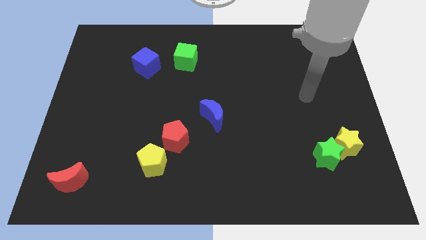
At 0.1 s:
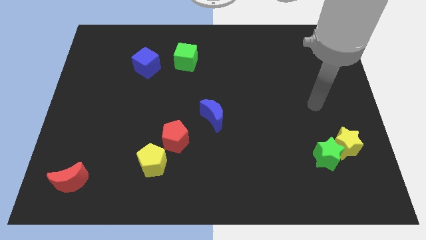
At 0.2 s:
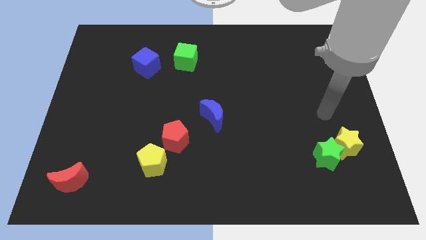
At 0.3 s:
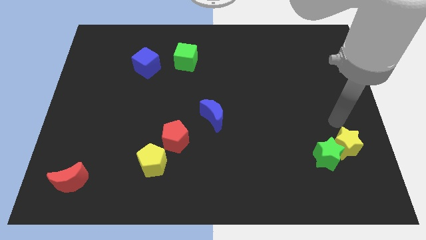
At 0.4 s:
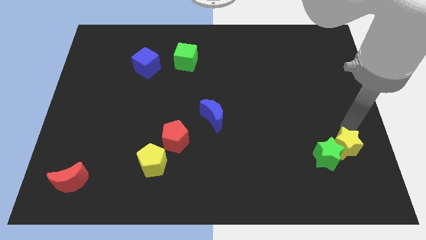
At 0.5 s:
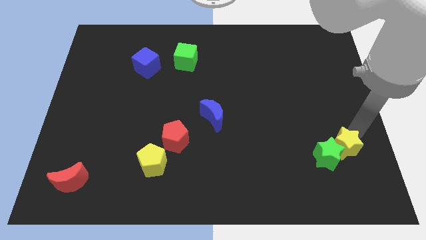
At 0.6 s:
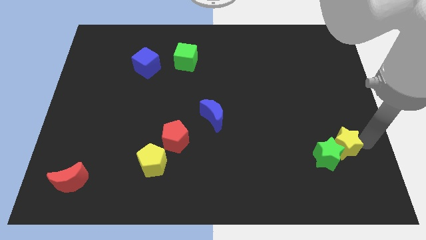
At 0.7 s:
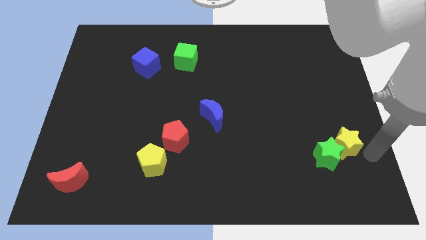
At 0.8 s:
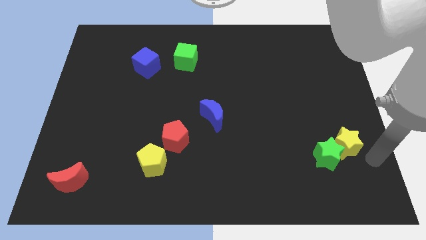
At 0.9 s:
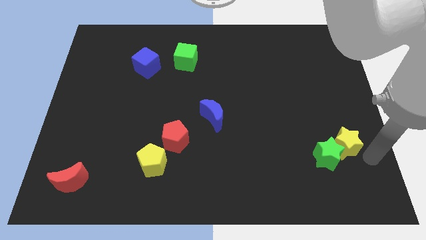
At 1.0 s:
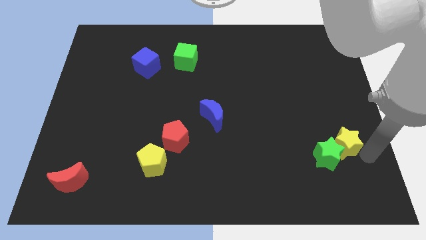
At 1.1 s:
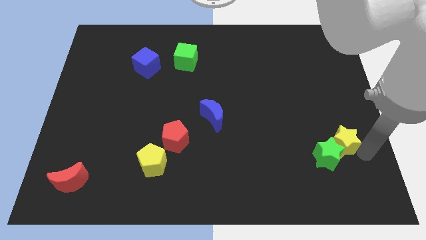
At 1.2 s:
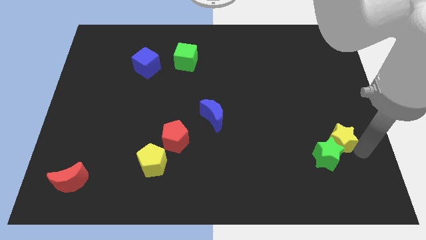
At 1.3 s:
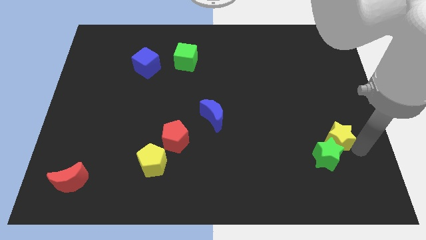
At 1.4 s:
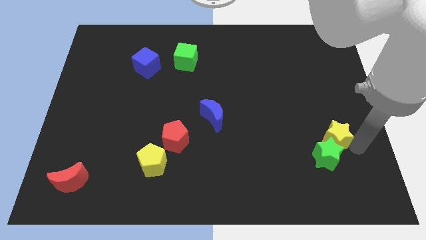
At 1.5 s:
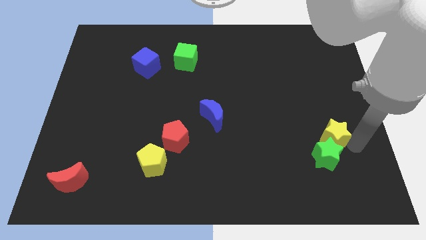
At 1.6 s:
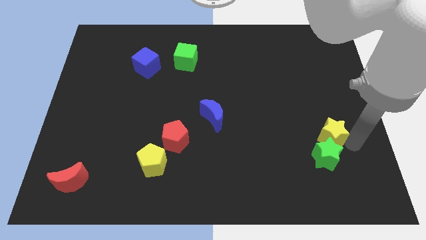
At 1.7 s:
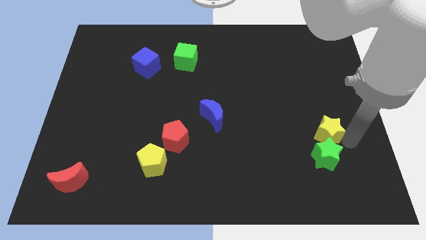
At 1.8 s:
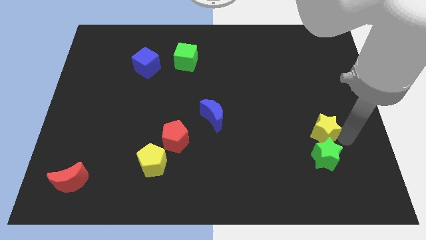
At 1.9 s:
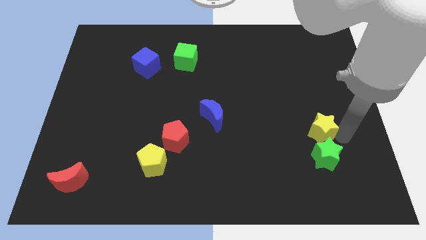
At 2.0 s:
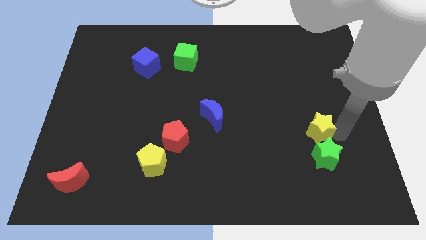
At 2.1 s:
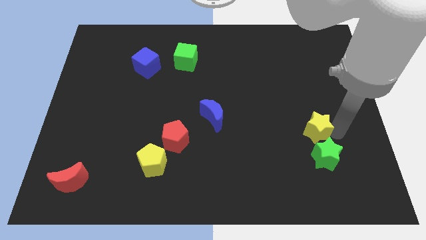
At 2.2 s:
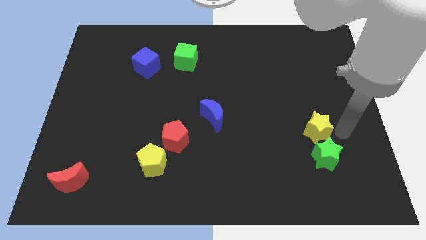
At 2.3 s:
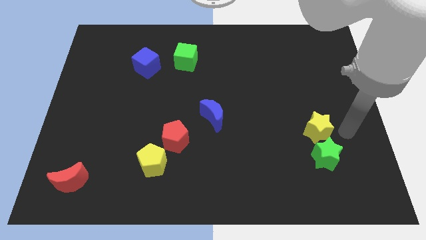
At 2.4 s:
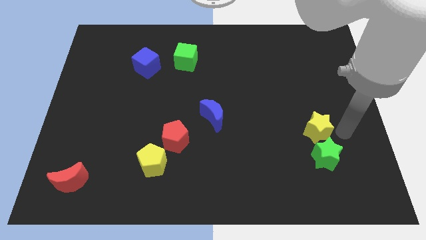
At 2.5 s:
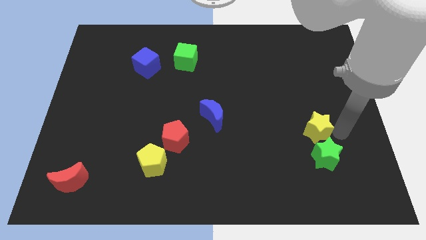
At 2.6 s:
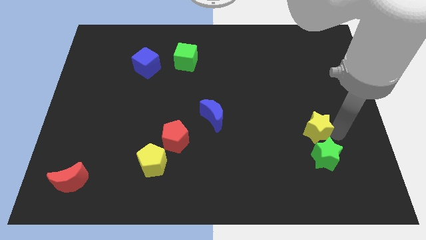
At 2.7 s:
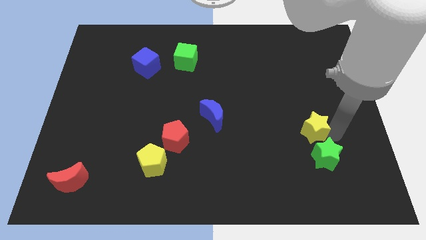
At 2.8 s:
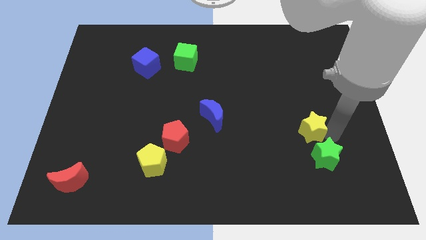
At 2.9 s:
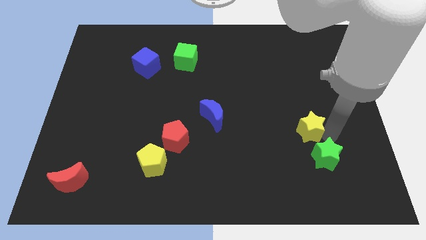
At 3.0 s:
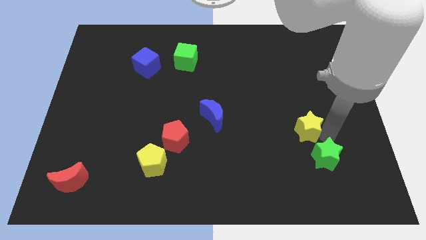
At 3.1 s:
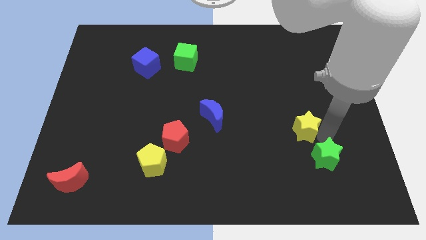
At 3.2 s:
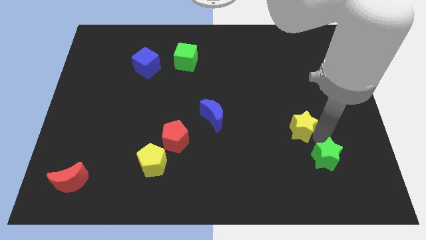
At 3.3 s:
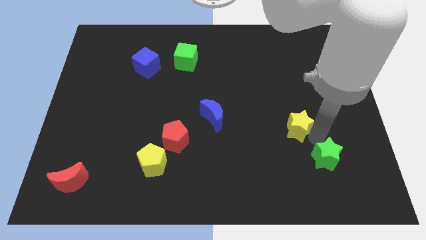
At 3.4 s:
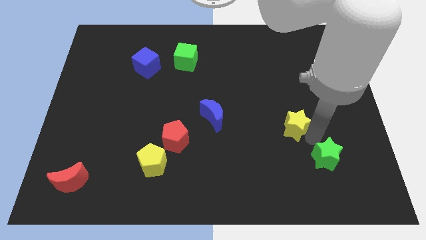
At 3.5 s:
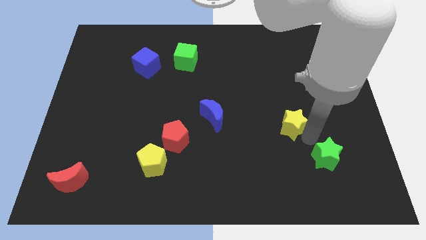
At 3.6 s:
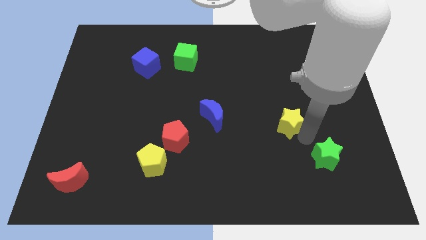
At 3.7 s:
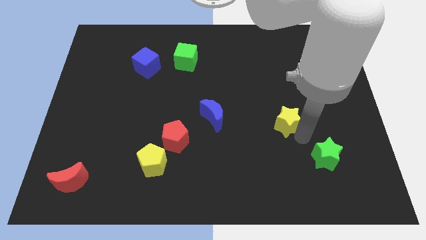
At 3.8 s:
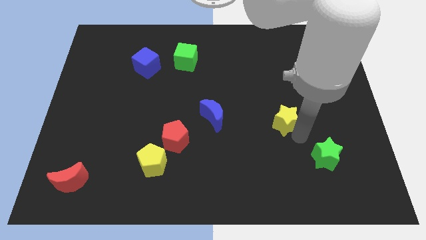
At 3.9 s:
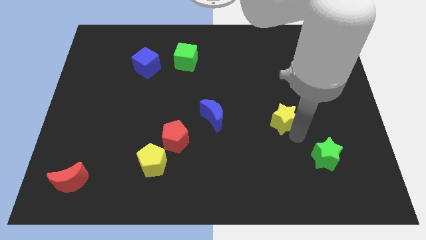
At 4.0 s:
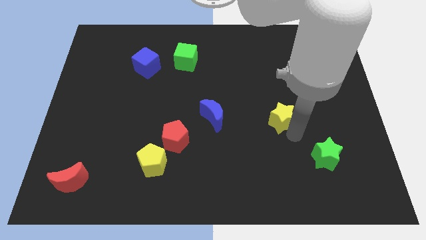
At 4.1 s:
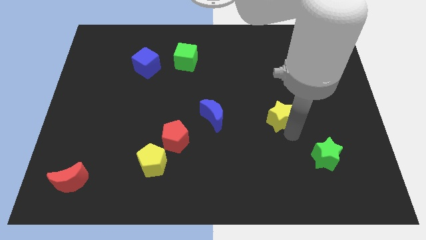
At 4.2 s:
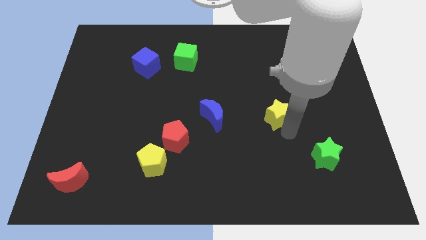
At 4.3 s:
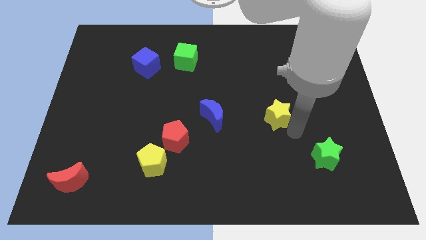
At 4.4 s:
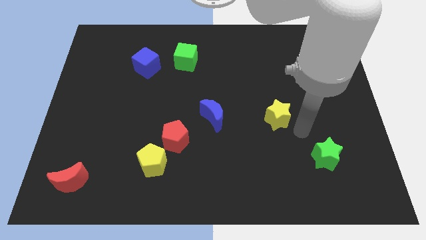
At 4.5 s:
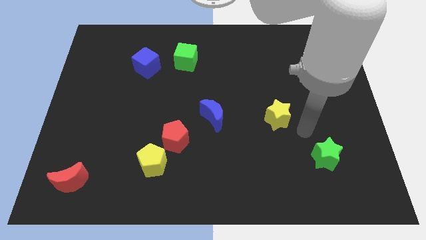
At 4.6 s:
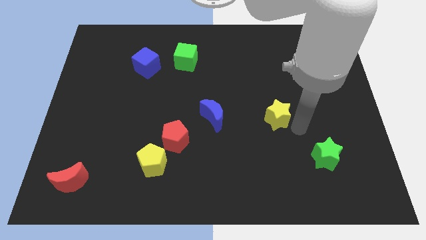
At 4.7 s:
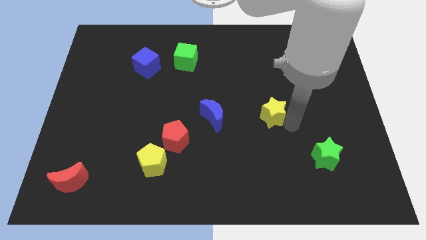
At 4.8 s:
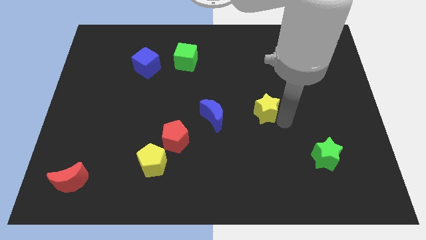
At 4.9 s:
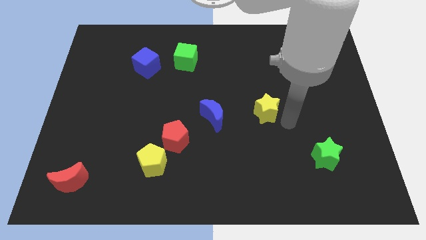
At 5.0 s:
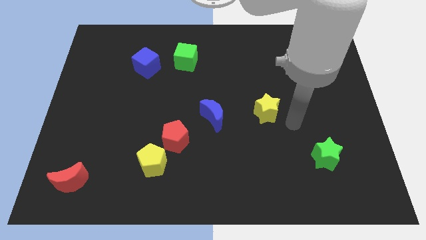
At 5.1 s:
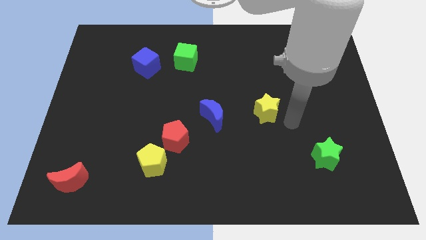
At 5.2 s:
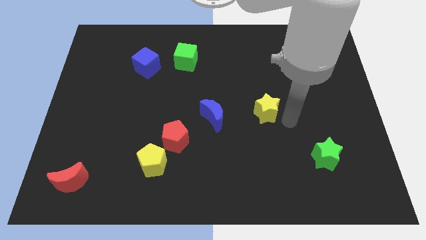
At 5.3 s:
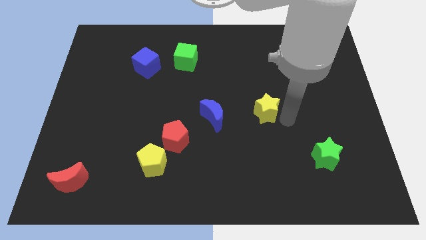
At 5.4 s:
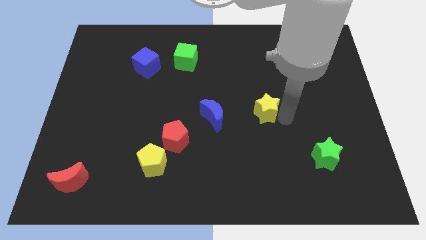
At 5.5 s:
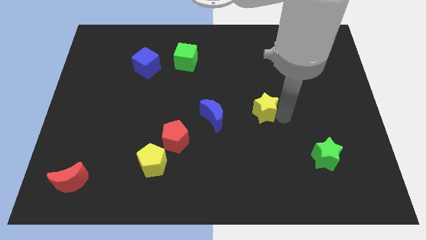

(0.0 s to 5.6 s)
slide the yellow star to the middle

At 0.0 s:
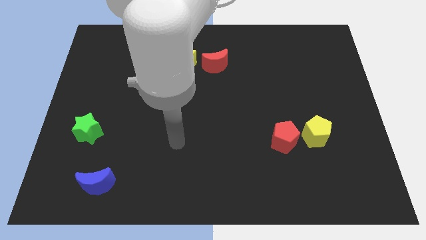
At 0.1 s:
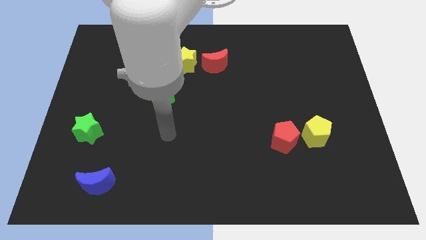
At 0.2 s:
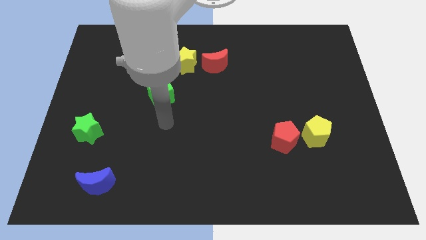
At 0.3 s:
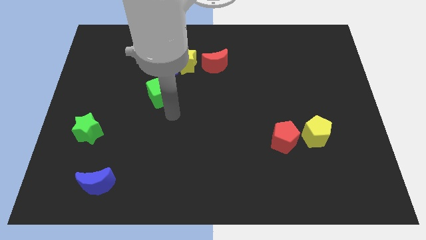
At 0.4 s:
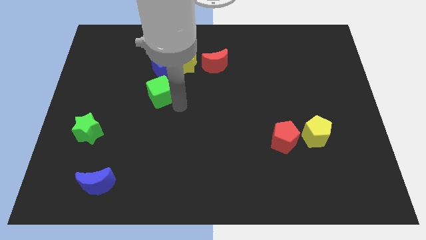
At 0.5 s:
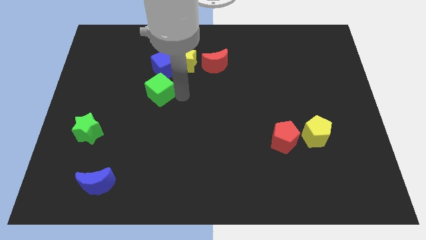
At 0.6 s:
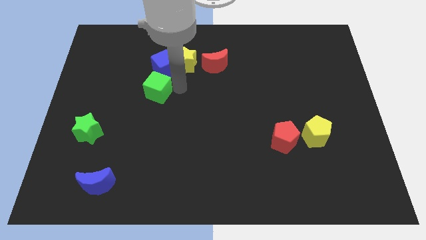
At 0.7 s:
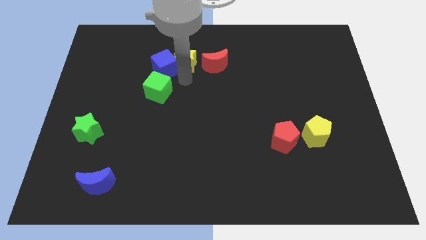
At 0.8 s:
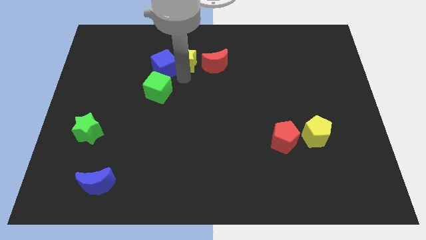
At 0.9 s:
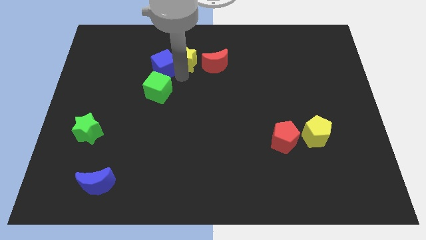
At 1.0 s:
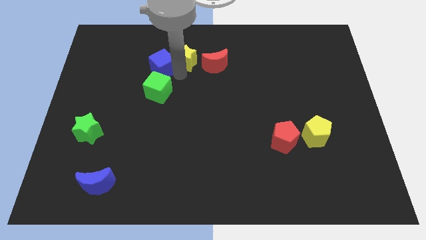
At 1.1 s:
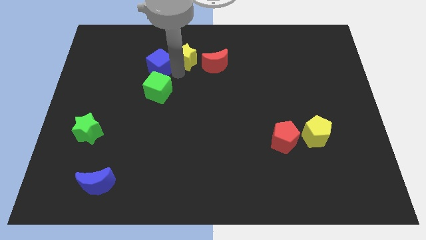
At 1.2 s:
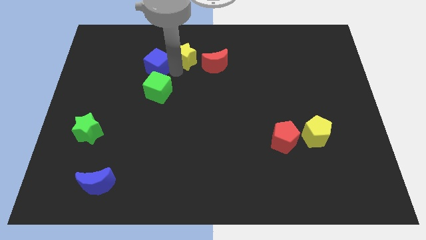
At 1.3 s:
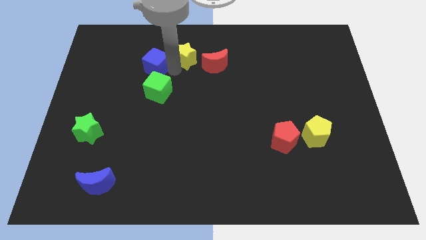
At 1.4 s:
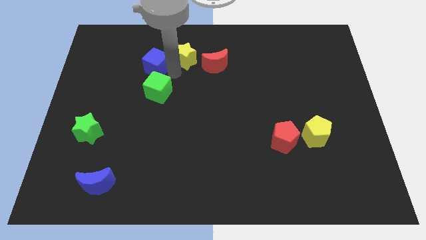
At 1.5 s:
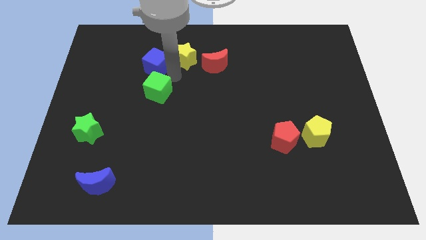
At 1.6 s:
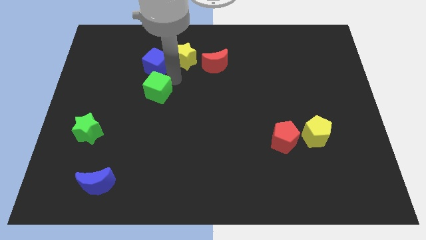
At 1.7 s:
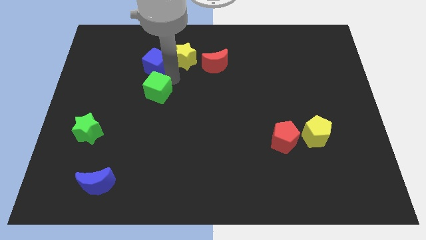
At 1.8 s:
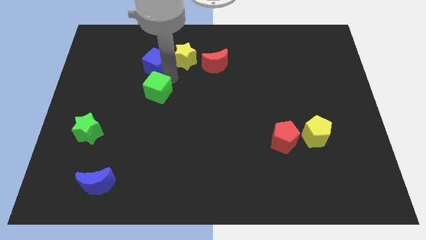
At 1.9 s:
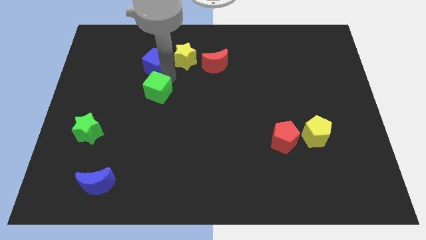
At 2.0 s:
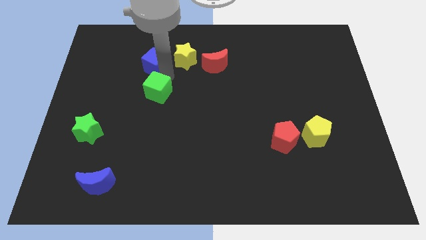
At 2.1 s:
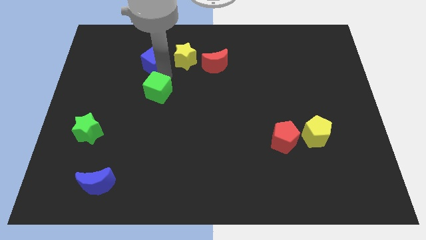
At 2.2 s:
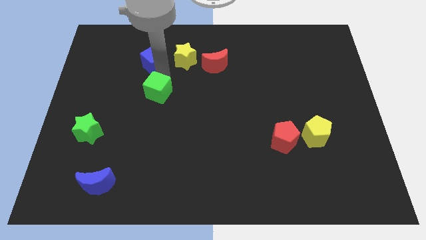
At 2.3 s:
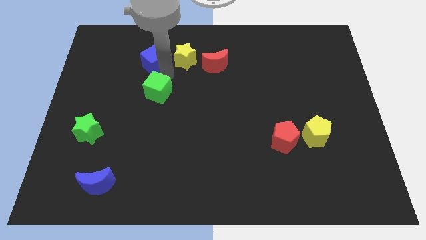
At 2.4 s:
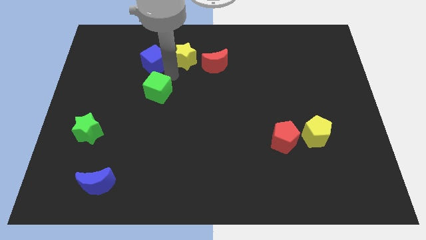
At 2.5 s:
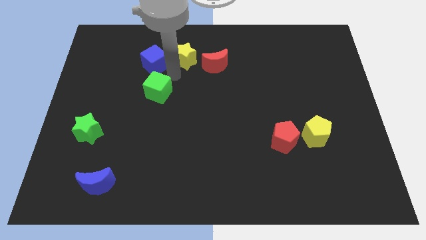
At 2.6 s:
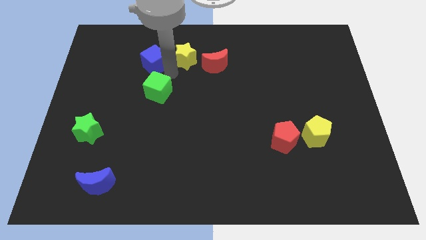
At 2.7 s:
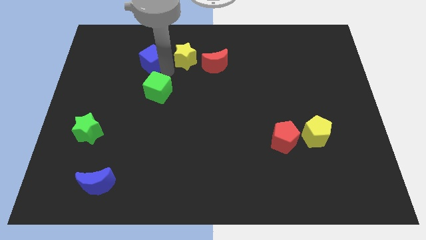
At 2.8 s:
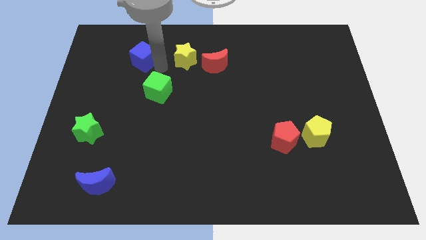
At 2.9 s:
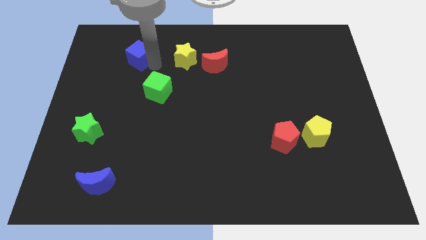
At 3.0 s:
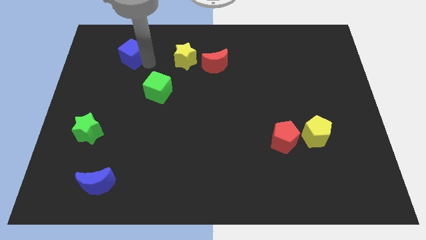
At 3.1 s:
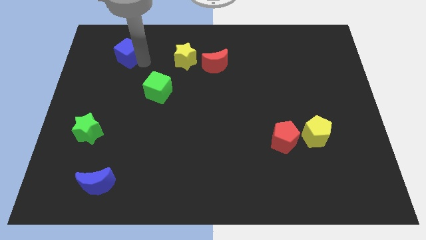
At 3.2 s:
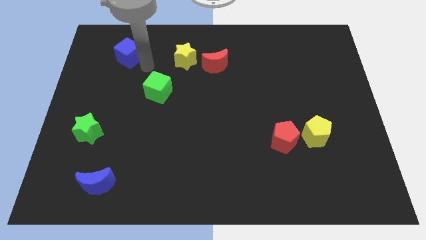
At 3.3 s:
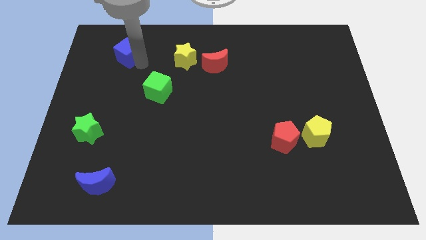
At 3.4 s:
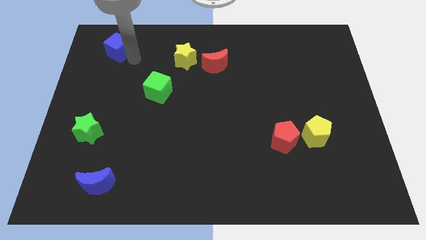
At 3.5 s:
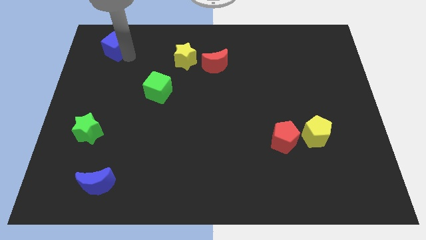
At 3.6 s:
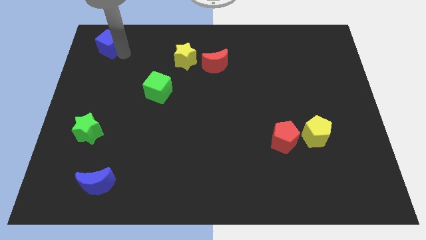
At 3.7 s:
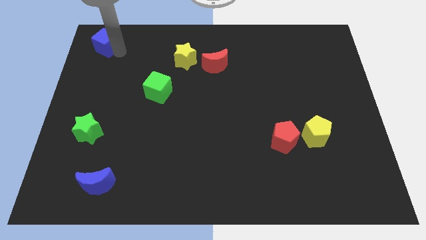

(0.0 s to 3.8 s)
slide the blue cube to the top left corner
